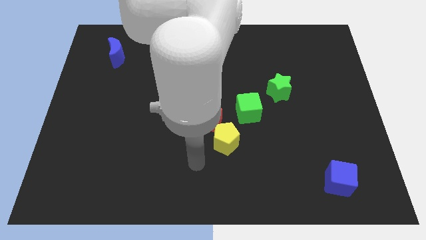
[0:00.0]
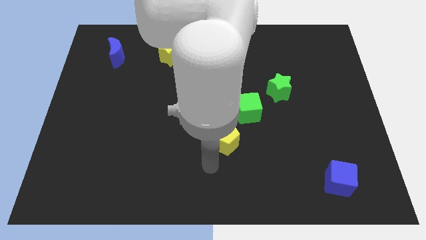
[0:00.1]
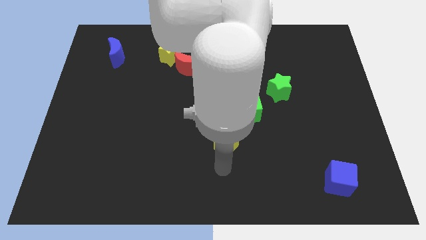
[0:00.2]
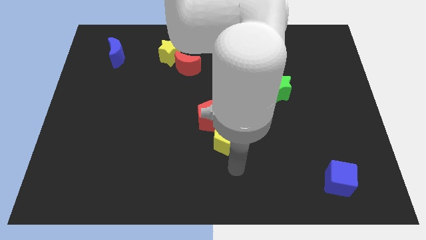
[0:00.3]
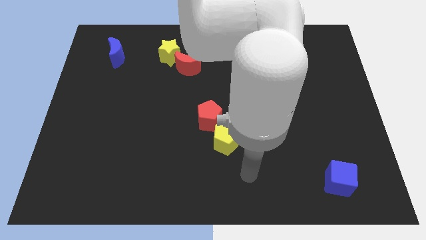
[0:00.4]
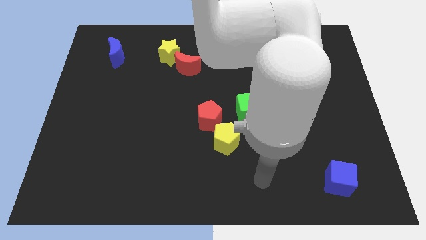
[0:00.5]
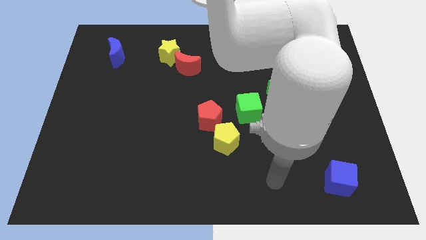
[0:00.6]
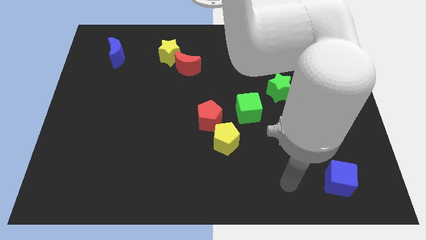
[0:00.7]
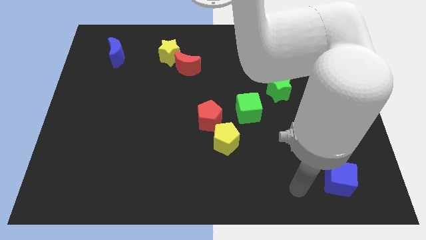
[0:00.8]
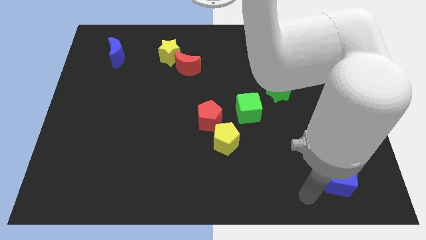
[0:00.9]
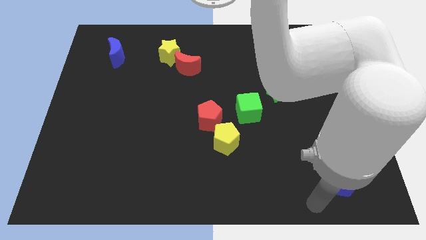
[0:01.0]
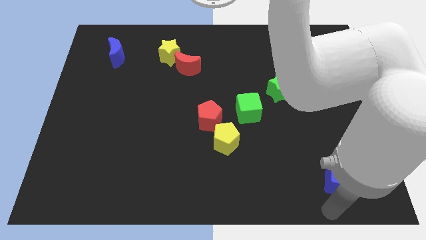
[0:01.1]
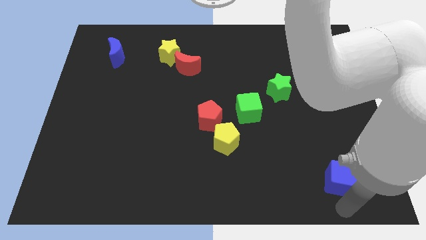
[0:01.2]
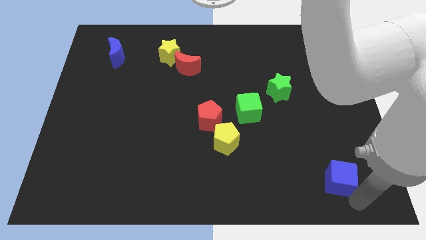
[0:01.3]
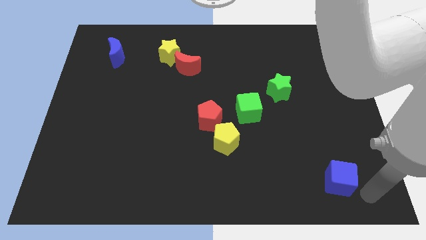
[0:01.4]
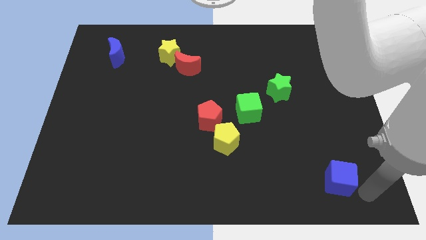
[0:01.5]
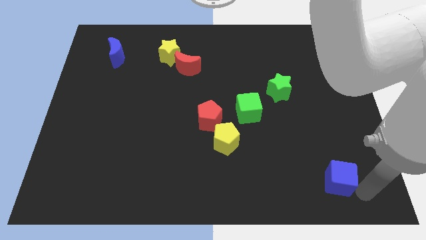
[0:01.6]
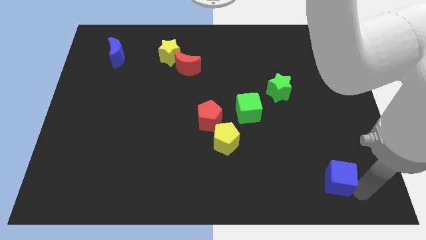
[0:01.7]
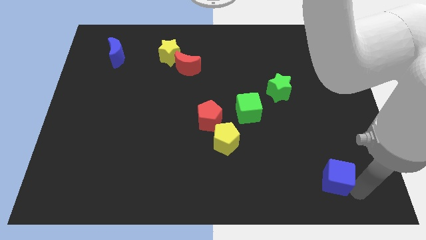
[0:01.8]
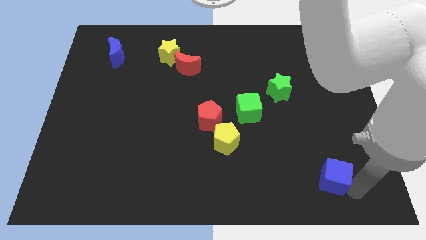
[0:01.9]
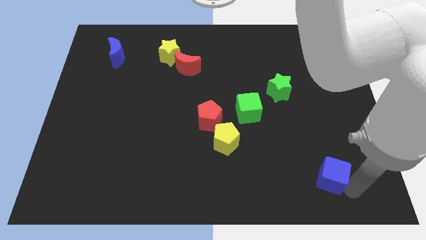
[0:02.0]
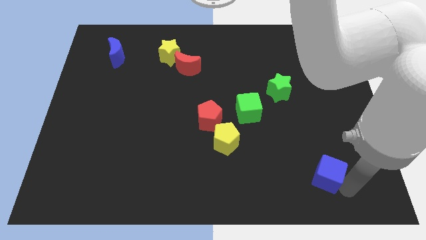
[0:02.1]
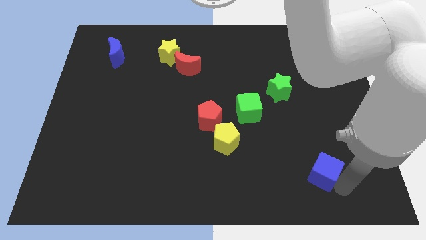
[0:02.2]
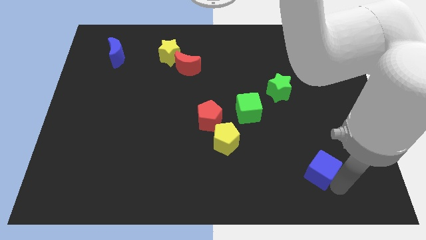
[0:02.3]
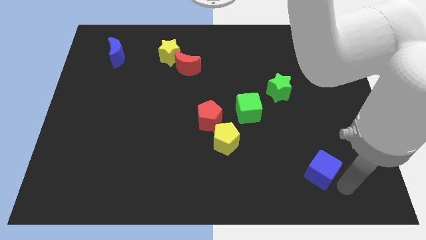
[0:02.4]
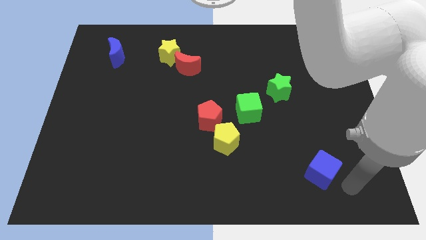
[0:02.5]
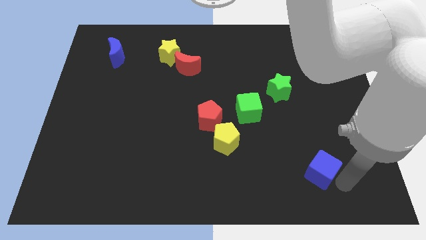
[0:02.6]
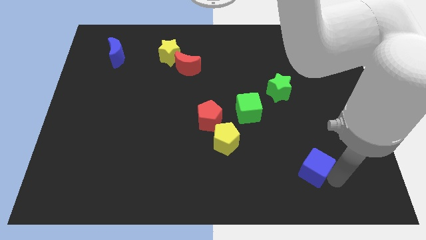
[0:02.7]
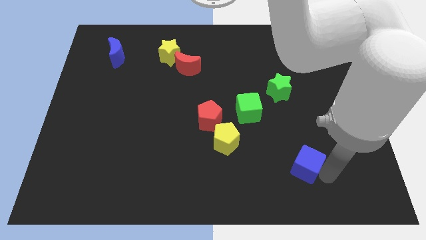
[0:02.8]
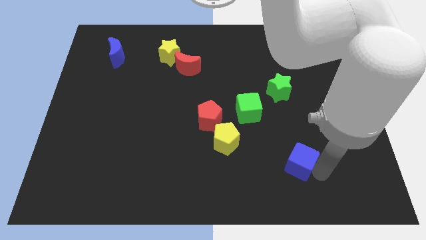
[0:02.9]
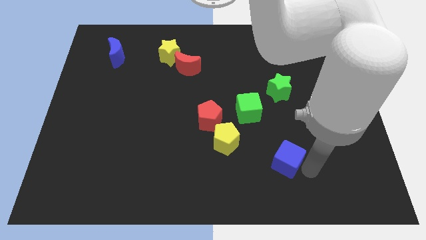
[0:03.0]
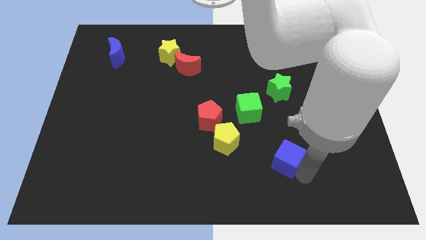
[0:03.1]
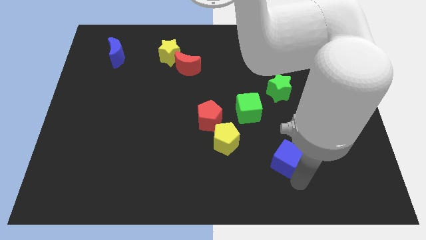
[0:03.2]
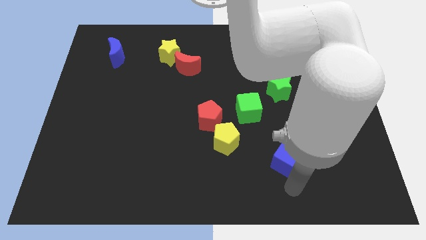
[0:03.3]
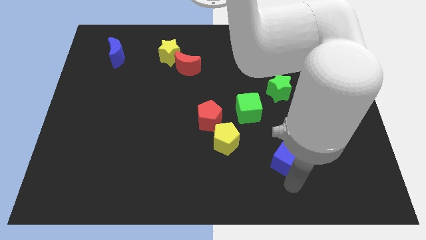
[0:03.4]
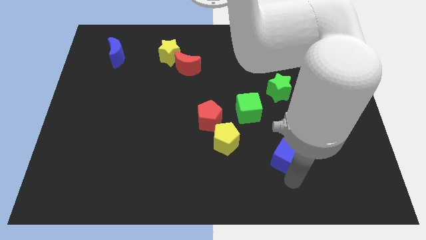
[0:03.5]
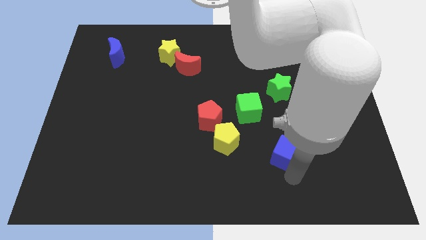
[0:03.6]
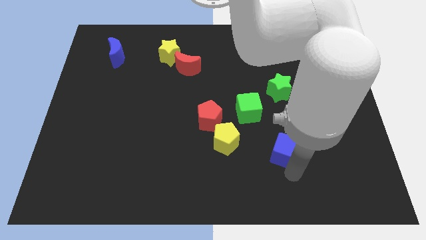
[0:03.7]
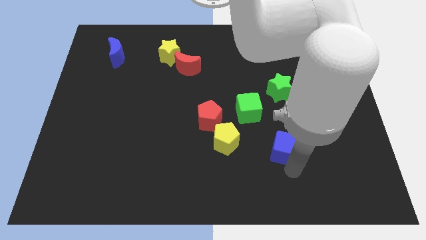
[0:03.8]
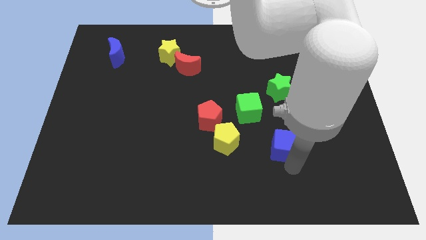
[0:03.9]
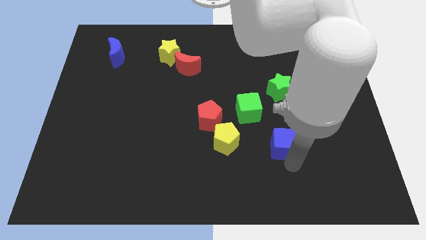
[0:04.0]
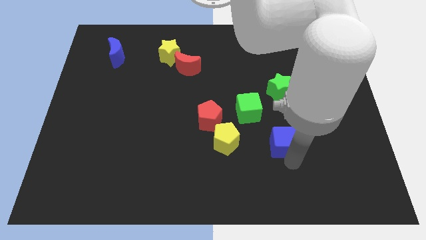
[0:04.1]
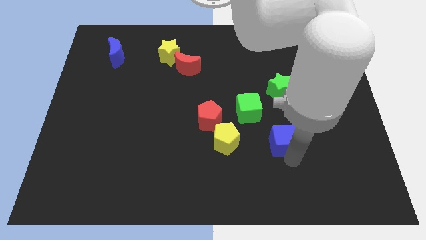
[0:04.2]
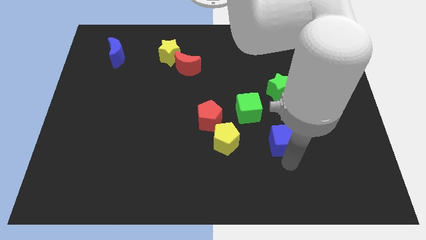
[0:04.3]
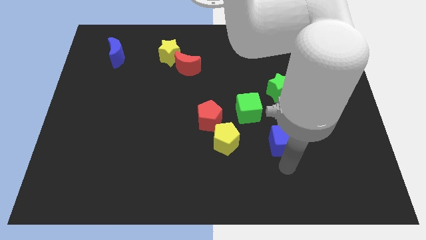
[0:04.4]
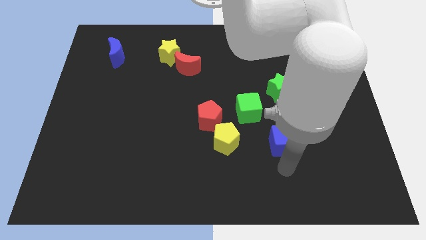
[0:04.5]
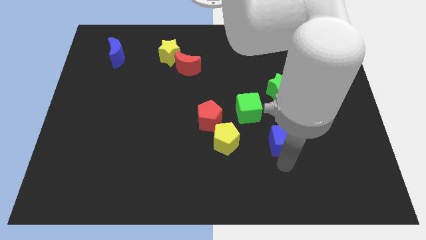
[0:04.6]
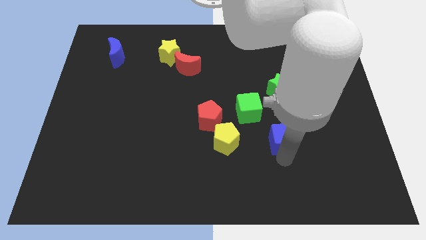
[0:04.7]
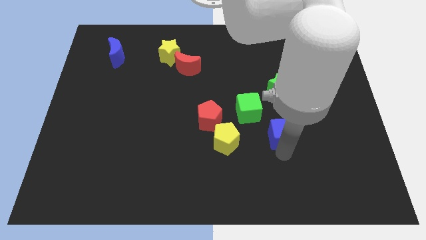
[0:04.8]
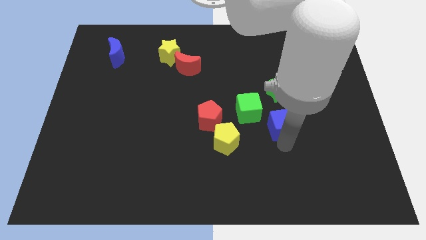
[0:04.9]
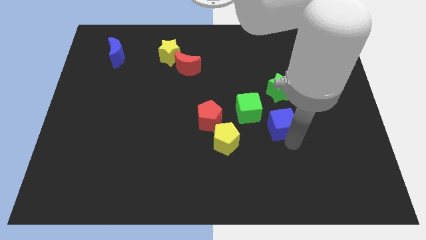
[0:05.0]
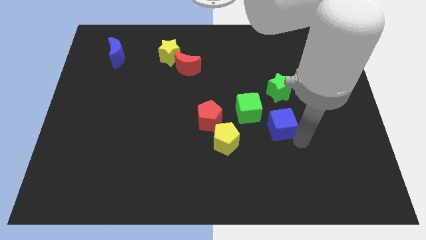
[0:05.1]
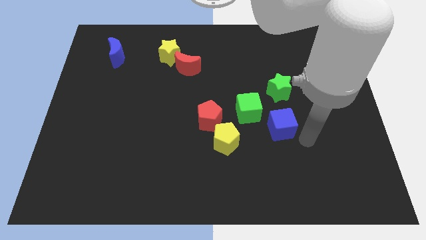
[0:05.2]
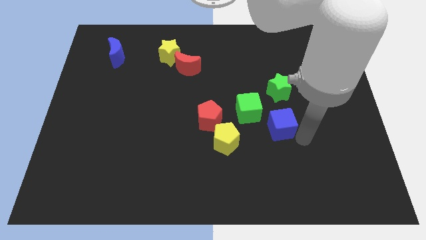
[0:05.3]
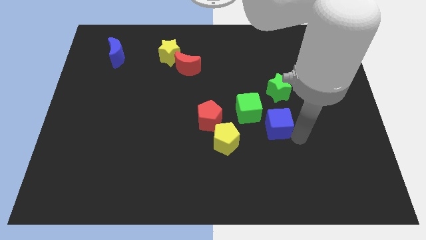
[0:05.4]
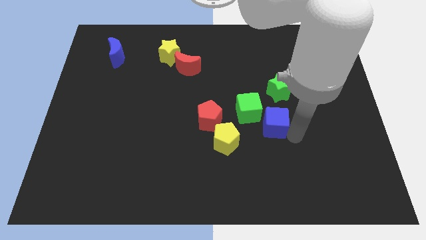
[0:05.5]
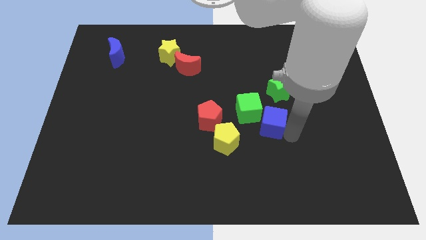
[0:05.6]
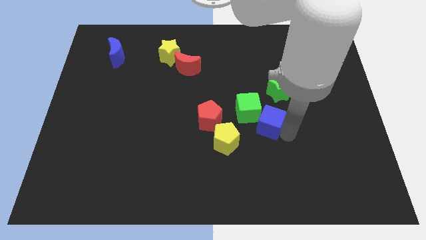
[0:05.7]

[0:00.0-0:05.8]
slide the blue cube to the green cube
